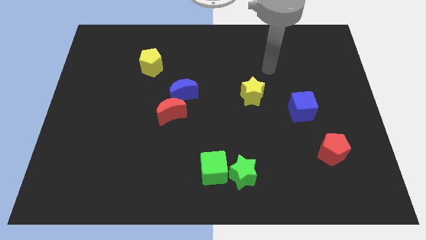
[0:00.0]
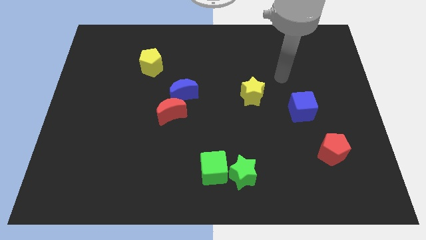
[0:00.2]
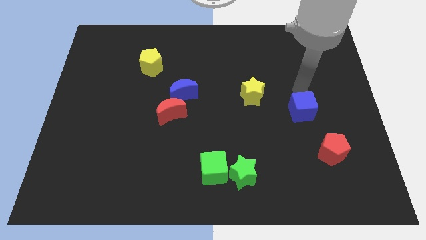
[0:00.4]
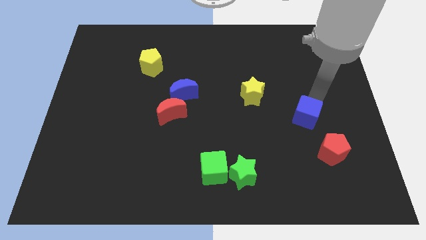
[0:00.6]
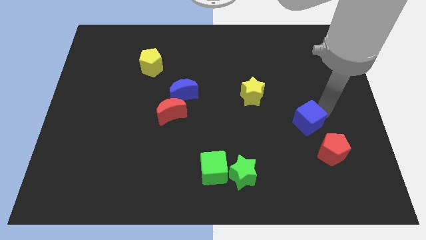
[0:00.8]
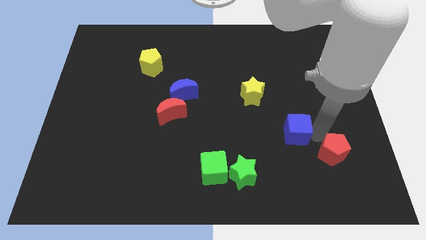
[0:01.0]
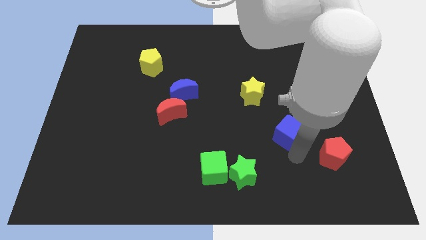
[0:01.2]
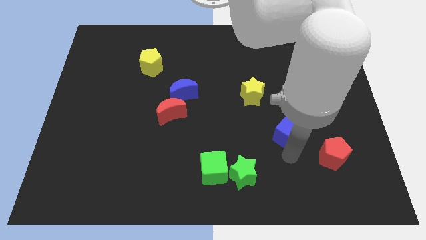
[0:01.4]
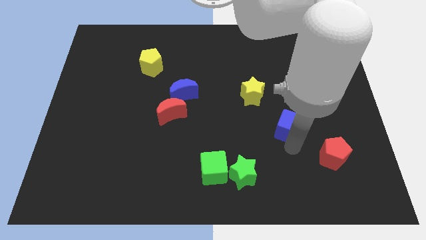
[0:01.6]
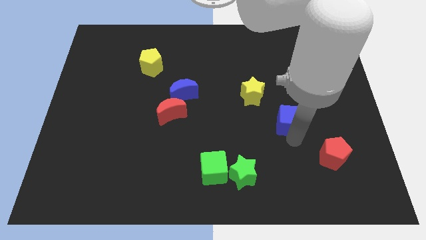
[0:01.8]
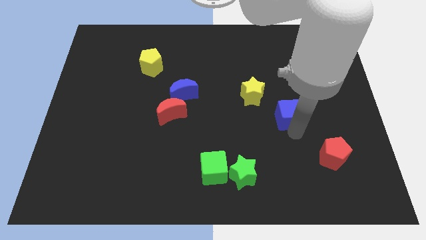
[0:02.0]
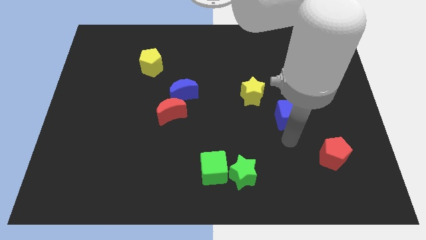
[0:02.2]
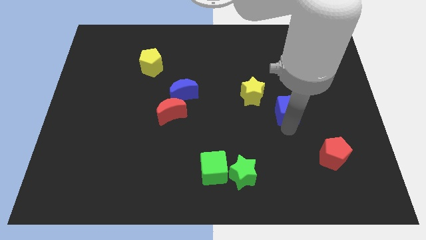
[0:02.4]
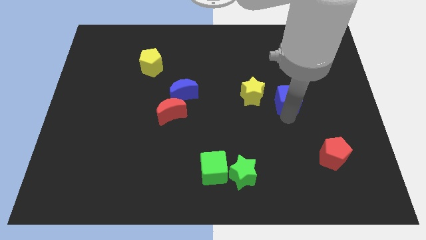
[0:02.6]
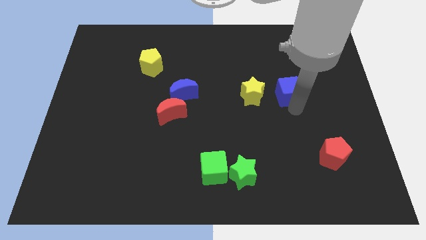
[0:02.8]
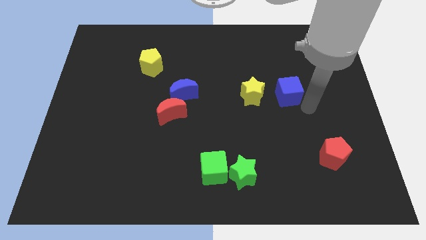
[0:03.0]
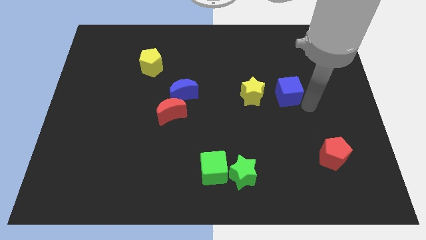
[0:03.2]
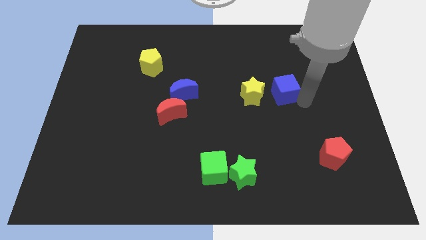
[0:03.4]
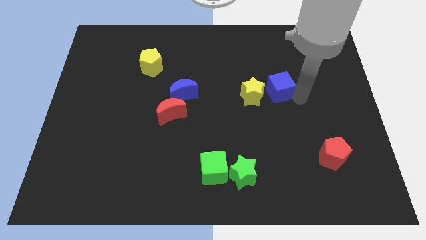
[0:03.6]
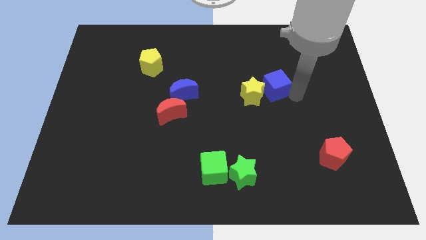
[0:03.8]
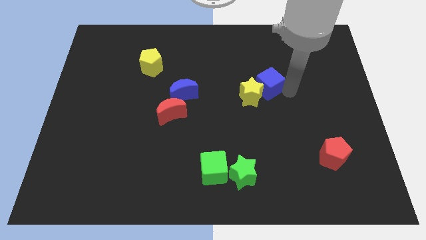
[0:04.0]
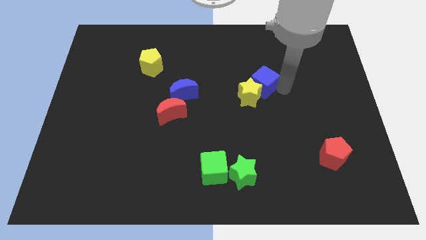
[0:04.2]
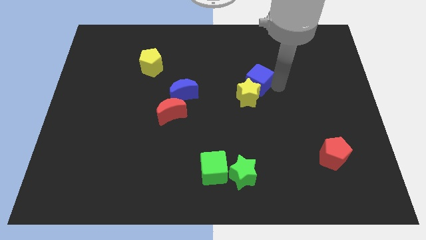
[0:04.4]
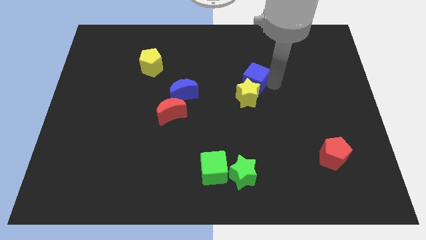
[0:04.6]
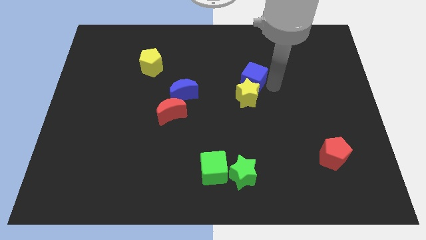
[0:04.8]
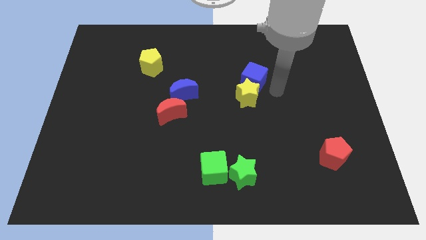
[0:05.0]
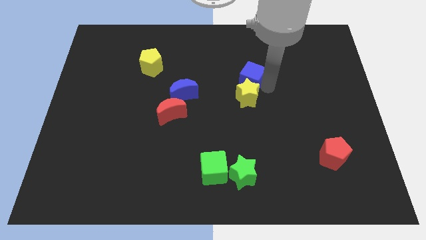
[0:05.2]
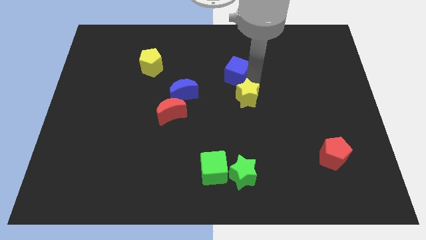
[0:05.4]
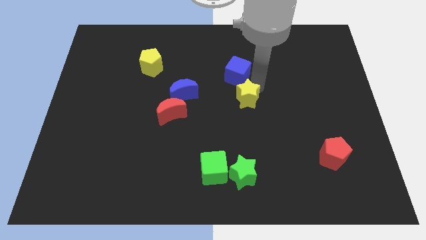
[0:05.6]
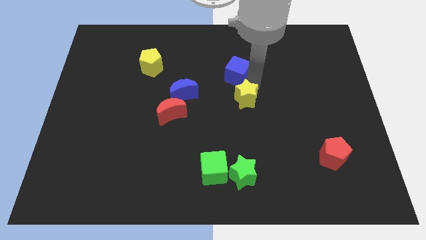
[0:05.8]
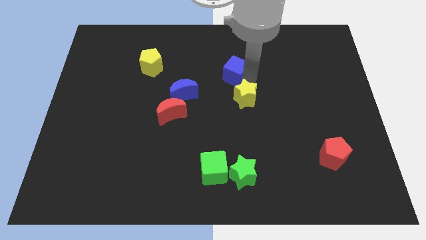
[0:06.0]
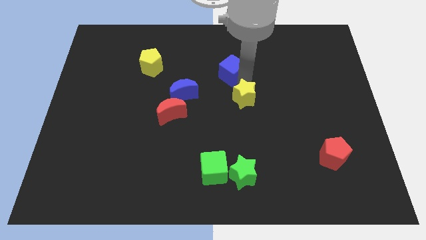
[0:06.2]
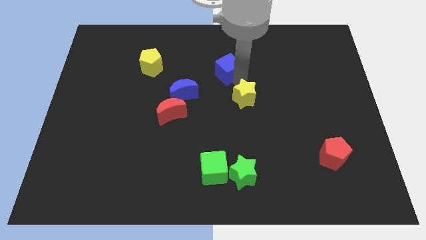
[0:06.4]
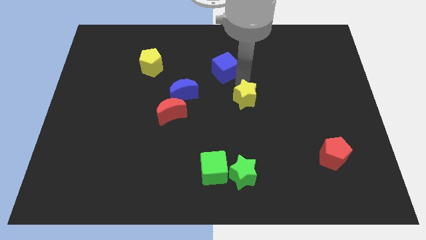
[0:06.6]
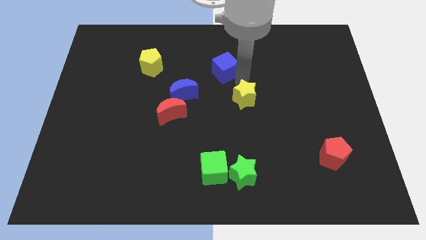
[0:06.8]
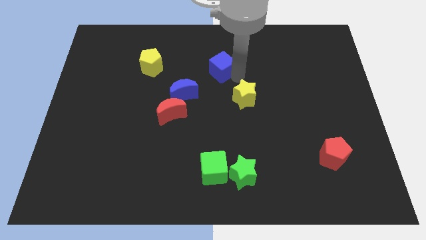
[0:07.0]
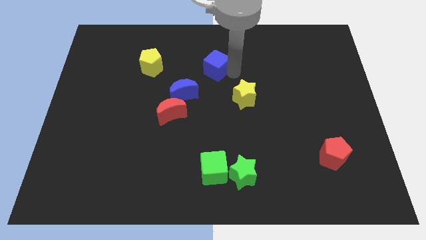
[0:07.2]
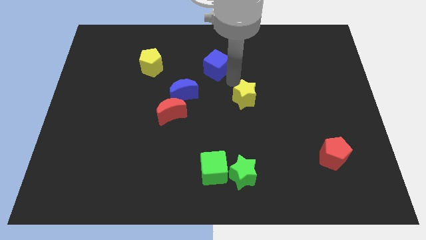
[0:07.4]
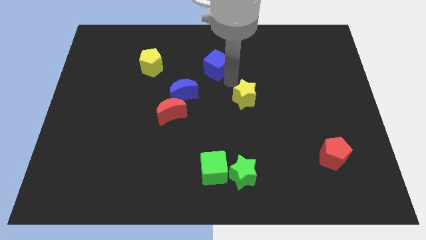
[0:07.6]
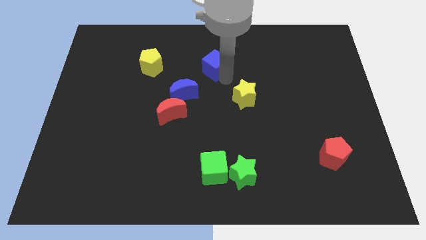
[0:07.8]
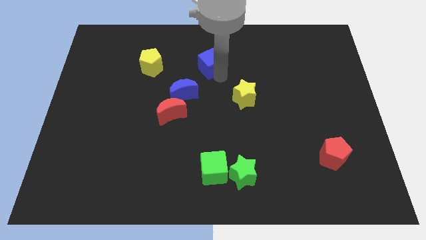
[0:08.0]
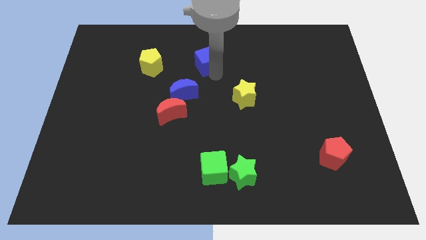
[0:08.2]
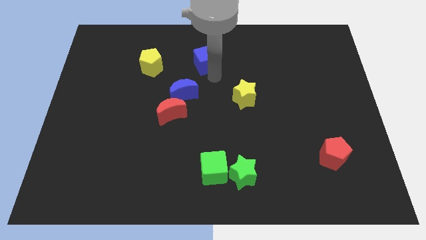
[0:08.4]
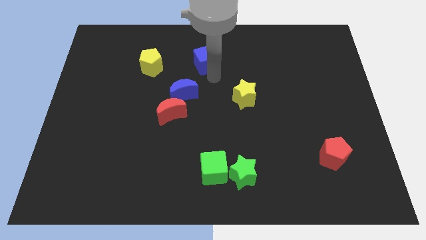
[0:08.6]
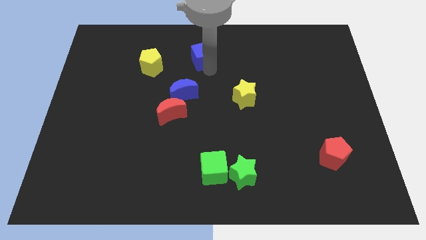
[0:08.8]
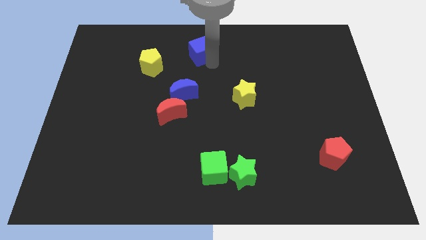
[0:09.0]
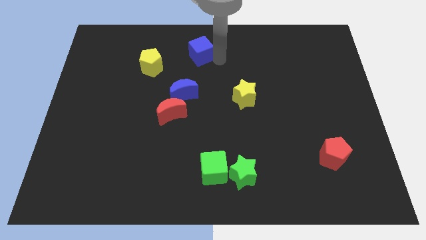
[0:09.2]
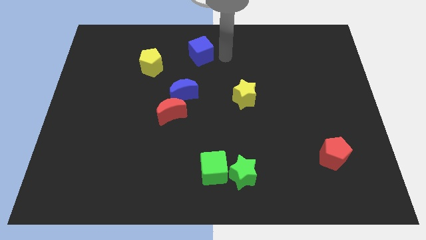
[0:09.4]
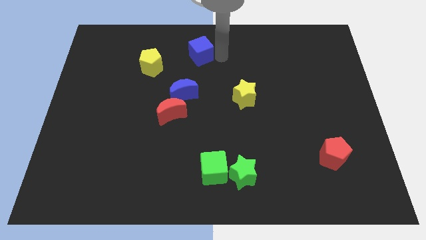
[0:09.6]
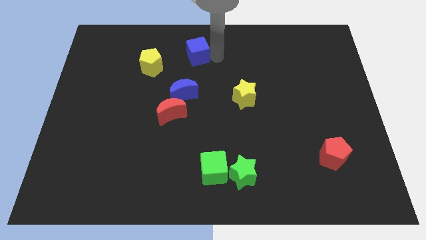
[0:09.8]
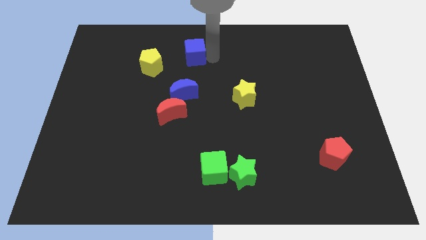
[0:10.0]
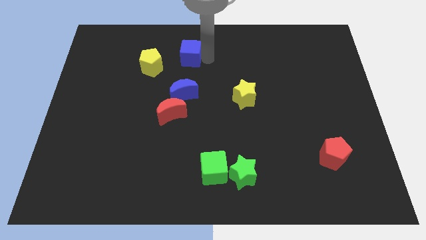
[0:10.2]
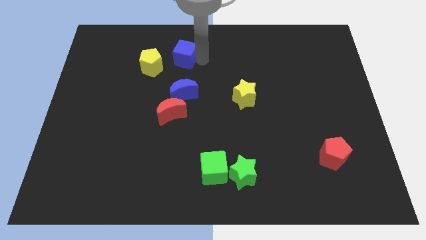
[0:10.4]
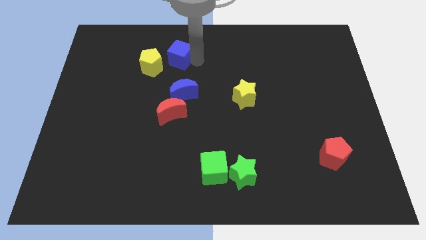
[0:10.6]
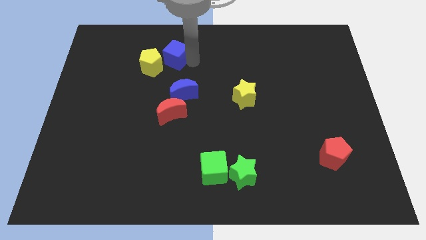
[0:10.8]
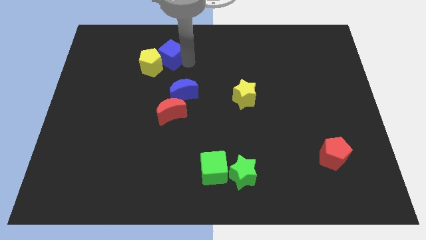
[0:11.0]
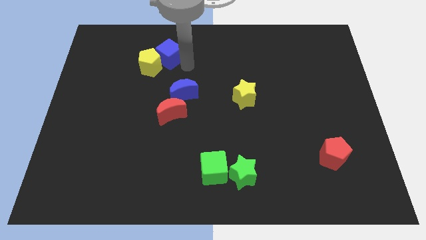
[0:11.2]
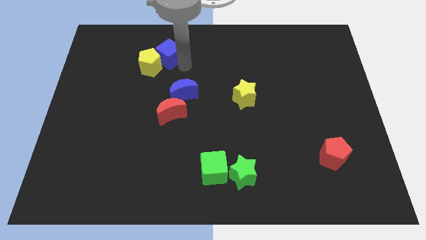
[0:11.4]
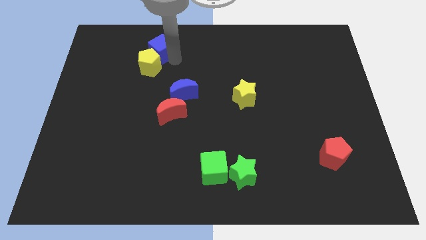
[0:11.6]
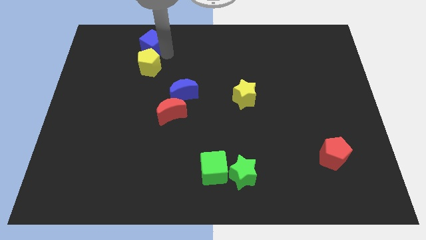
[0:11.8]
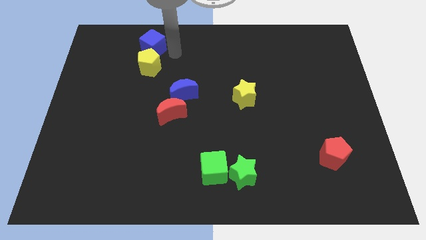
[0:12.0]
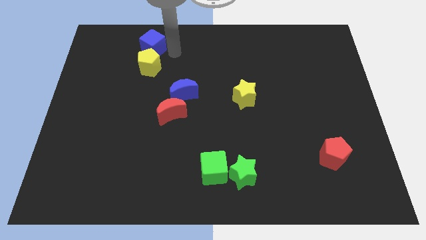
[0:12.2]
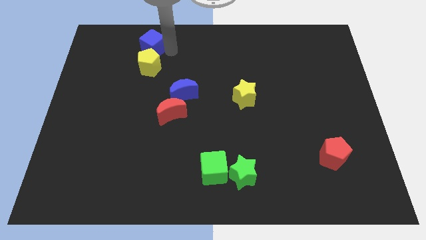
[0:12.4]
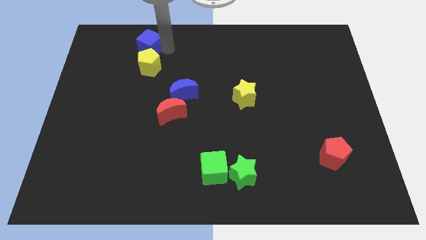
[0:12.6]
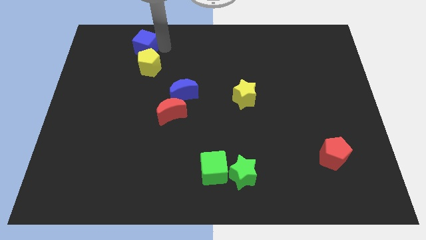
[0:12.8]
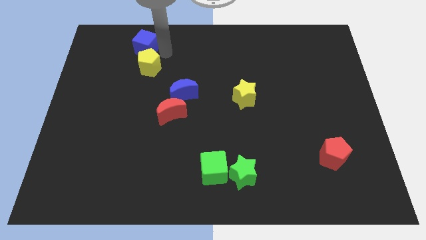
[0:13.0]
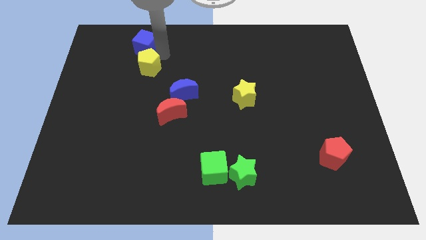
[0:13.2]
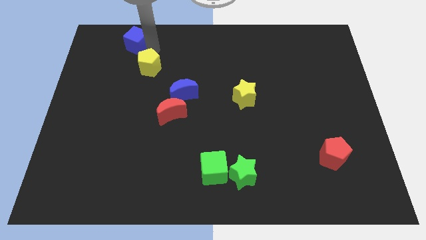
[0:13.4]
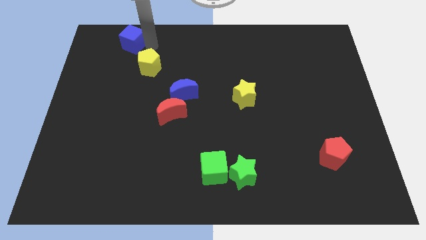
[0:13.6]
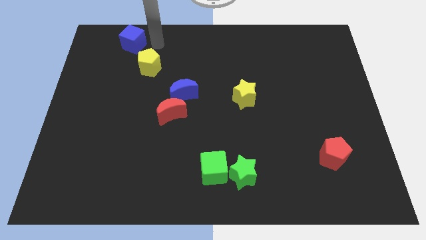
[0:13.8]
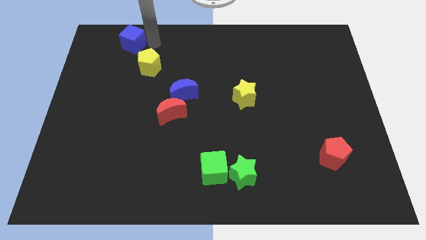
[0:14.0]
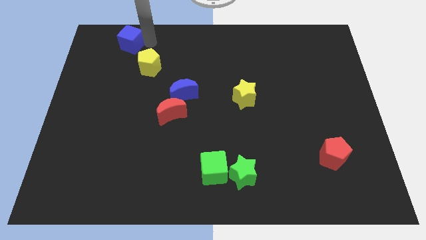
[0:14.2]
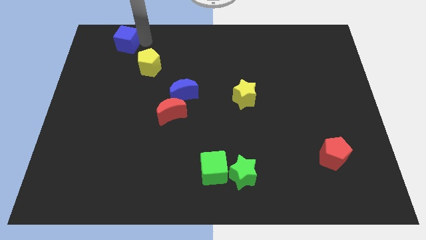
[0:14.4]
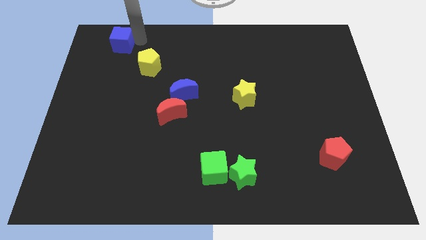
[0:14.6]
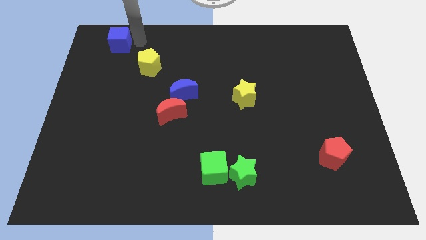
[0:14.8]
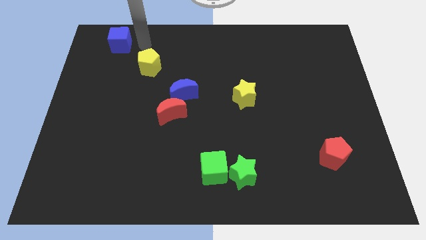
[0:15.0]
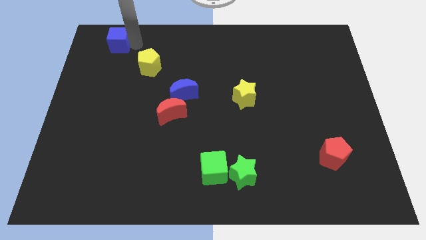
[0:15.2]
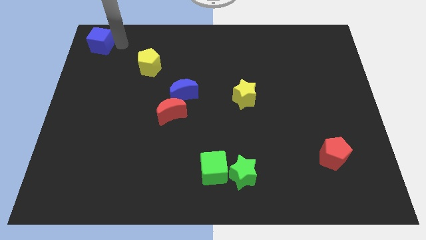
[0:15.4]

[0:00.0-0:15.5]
push the blue cube to the upper left corner
